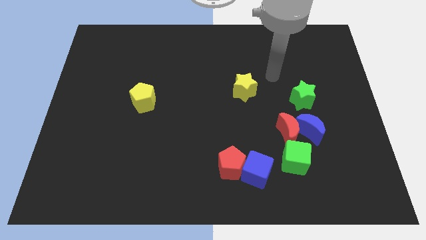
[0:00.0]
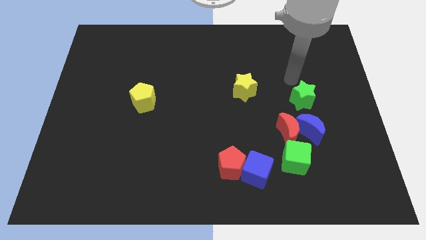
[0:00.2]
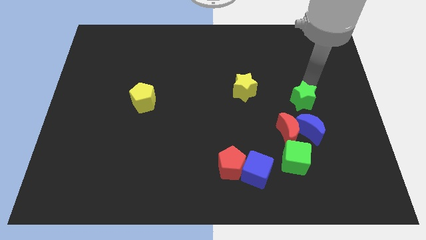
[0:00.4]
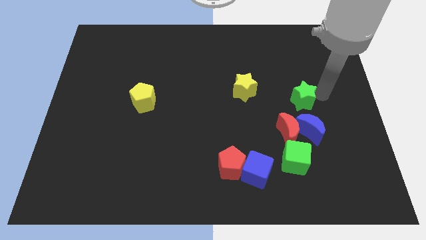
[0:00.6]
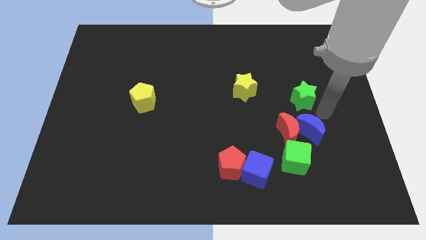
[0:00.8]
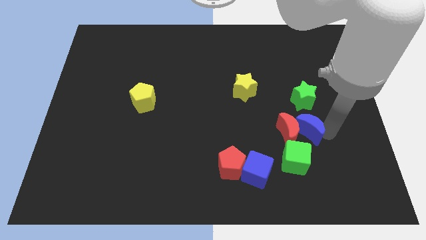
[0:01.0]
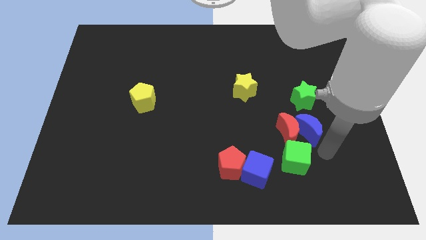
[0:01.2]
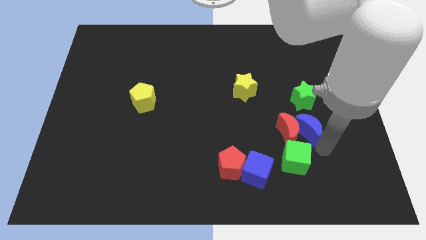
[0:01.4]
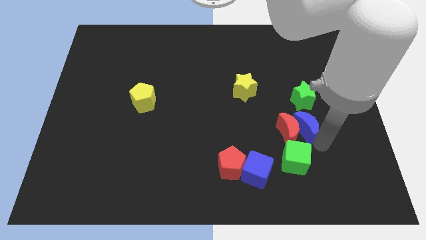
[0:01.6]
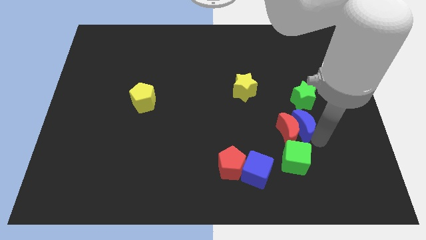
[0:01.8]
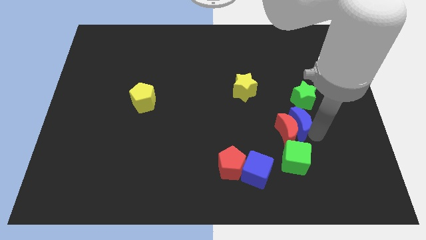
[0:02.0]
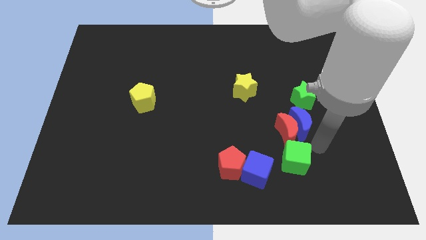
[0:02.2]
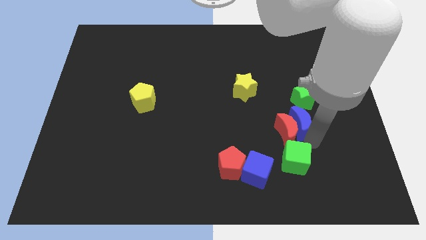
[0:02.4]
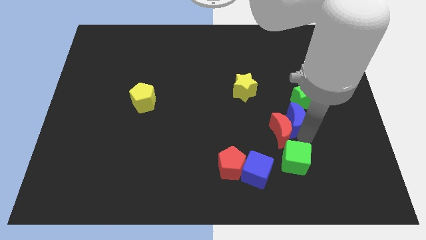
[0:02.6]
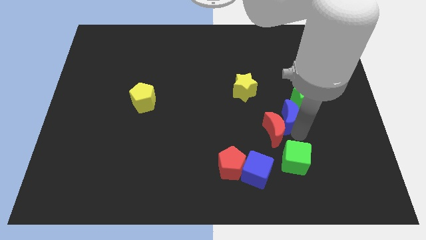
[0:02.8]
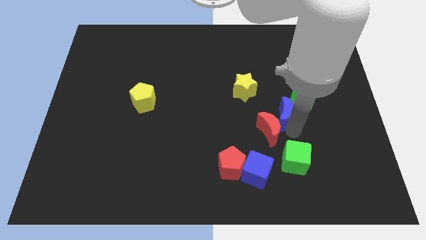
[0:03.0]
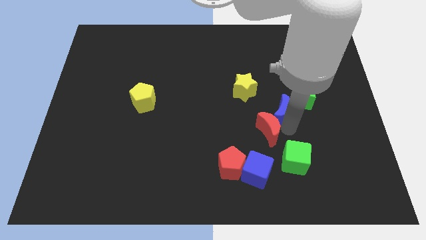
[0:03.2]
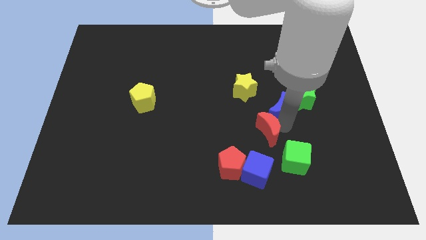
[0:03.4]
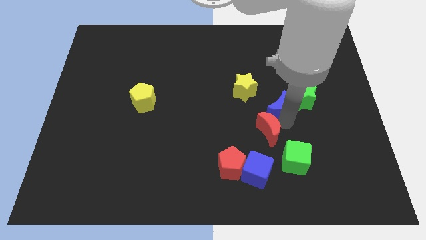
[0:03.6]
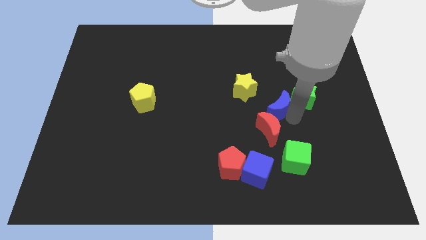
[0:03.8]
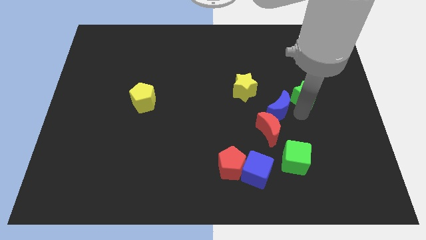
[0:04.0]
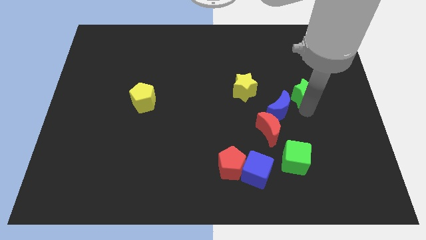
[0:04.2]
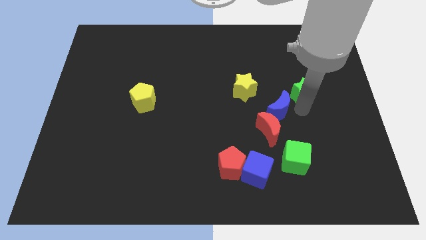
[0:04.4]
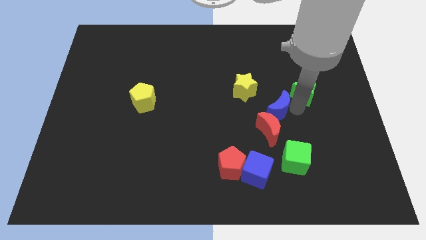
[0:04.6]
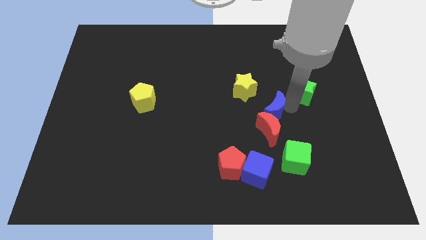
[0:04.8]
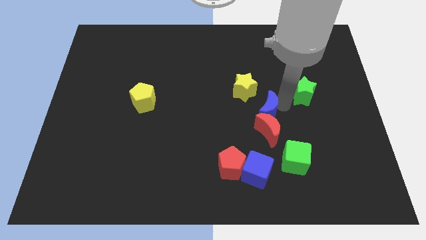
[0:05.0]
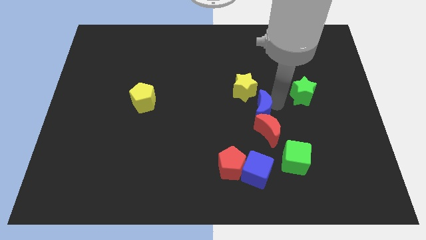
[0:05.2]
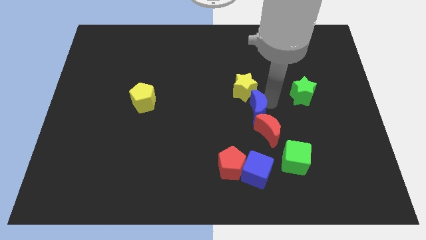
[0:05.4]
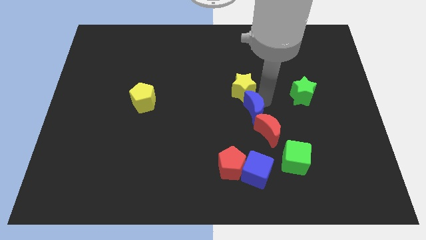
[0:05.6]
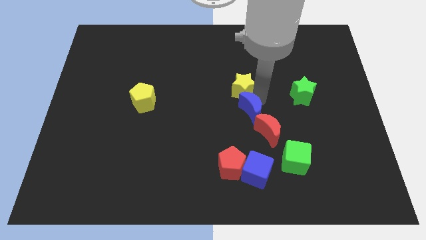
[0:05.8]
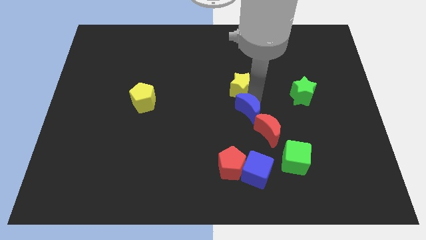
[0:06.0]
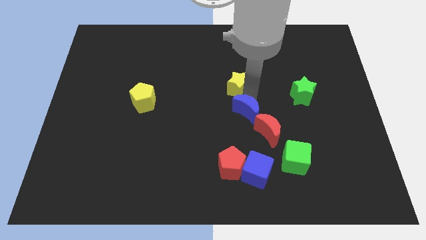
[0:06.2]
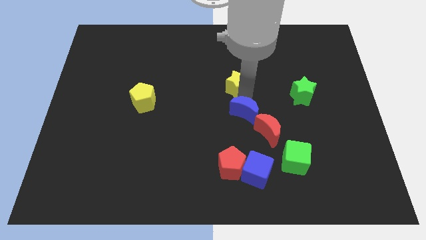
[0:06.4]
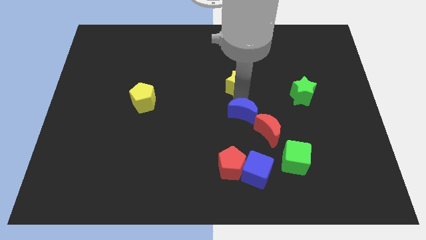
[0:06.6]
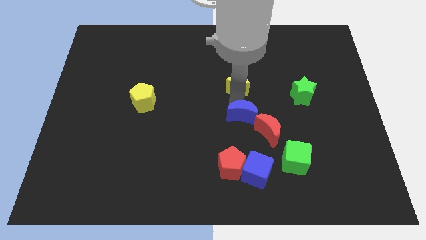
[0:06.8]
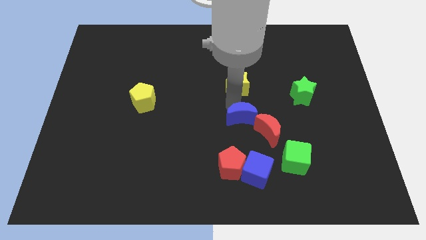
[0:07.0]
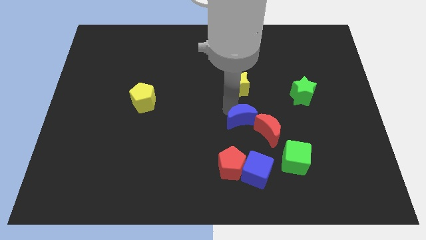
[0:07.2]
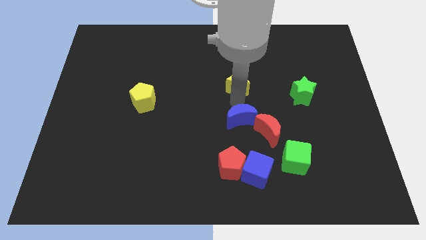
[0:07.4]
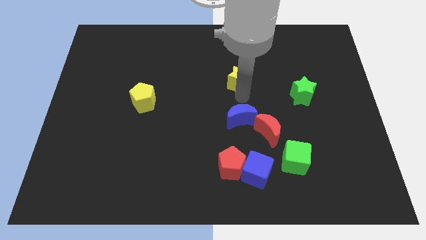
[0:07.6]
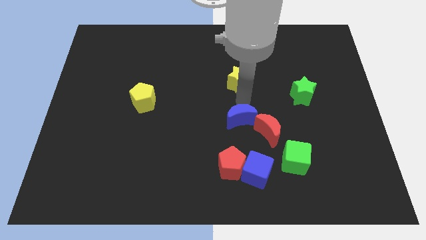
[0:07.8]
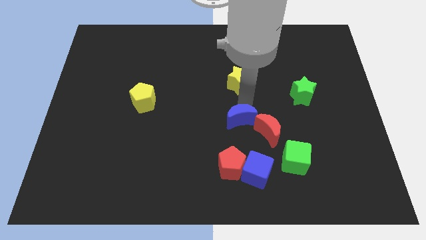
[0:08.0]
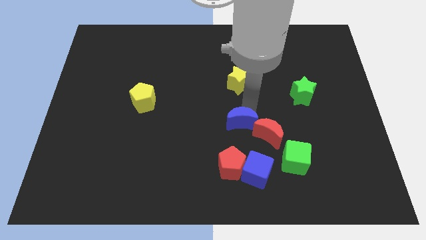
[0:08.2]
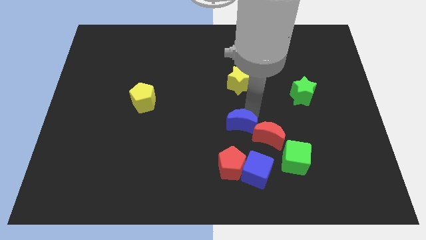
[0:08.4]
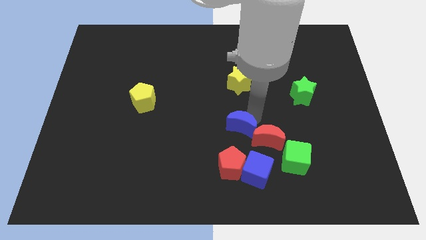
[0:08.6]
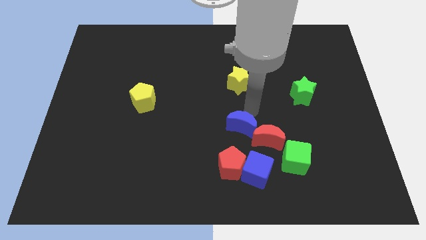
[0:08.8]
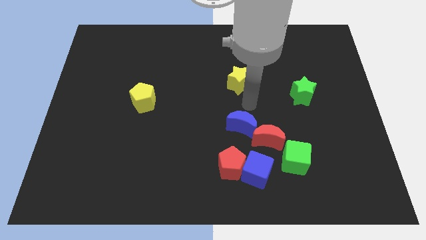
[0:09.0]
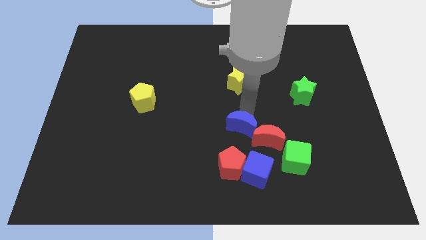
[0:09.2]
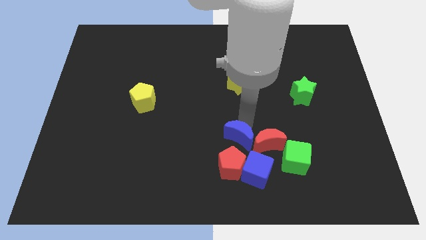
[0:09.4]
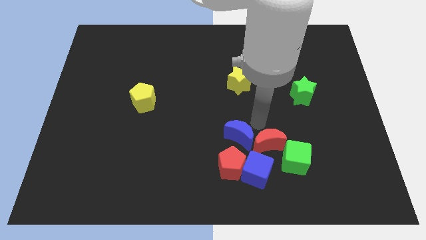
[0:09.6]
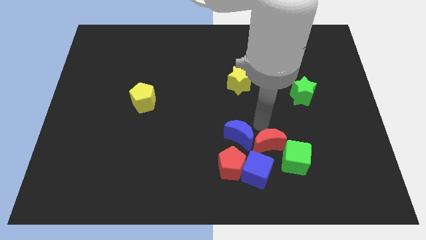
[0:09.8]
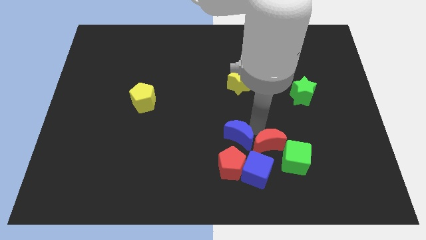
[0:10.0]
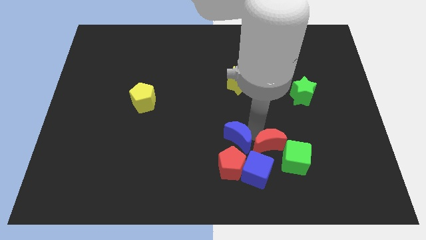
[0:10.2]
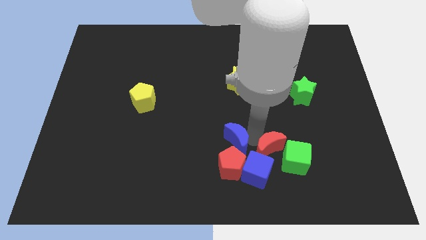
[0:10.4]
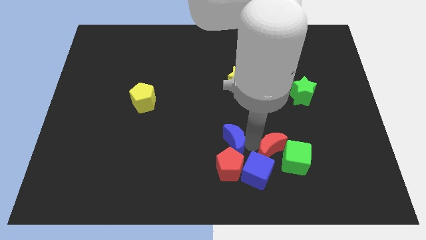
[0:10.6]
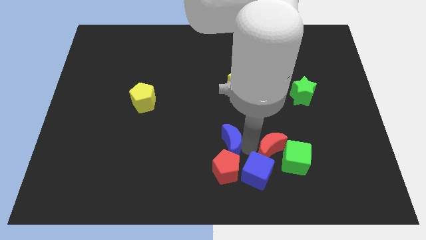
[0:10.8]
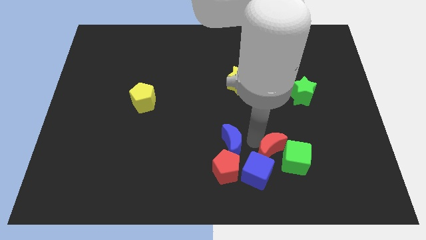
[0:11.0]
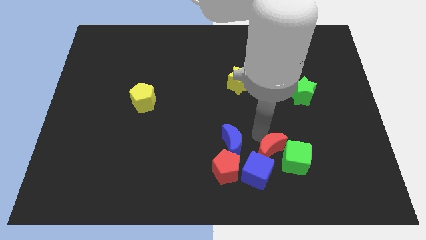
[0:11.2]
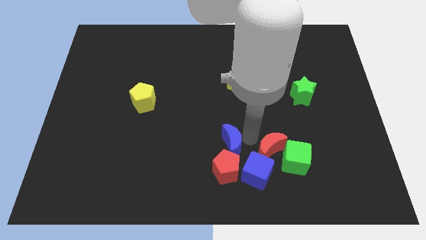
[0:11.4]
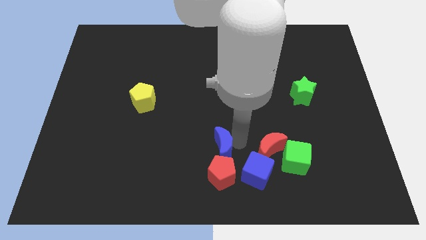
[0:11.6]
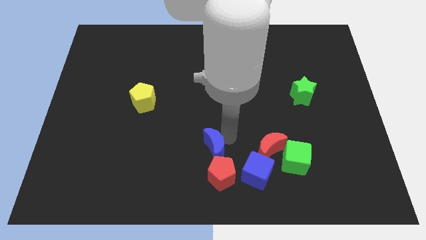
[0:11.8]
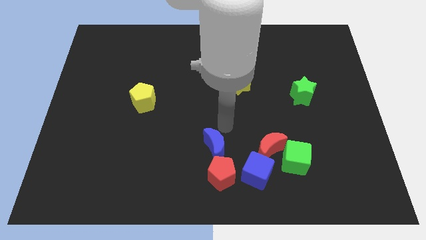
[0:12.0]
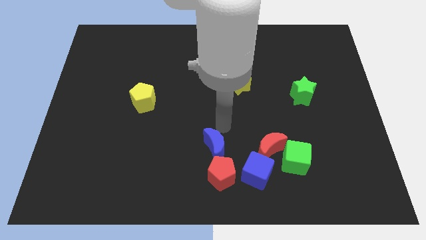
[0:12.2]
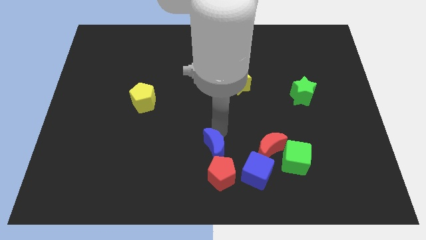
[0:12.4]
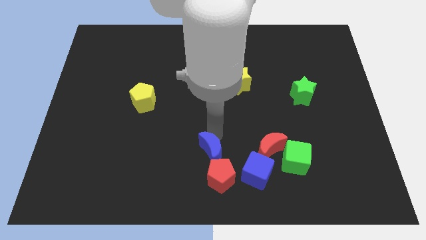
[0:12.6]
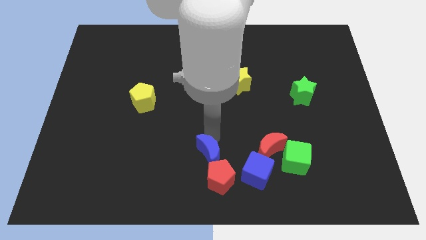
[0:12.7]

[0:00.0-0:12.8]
slide the blue moon left of the blue cube

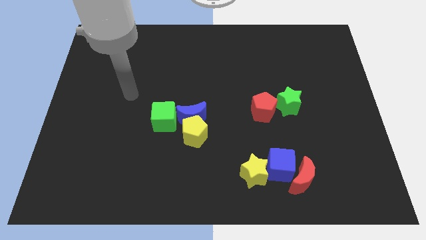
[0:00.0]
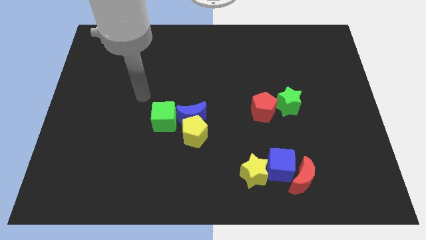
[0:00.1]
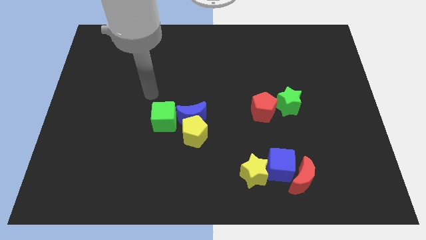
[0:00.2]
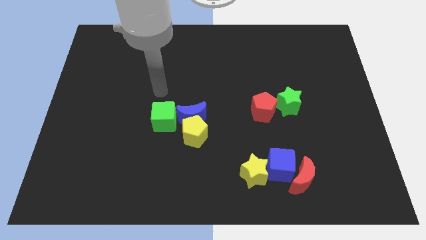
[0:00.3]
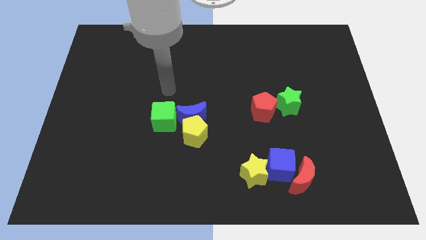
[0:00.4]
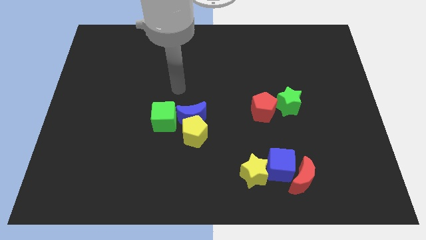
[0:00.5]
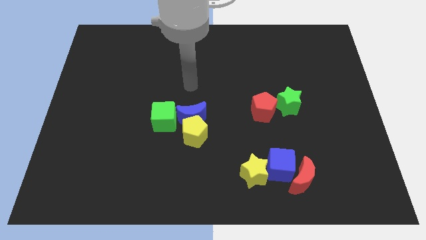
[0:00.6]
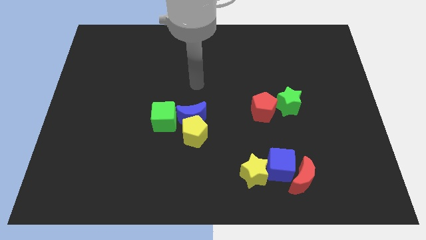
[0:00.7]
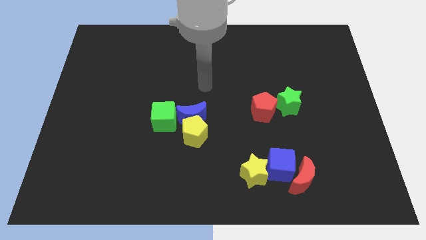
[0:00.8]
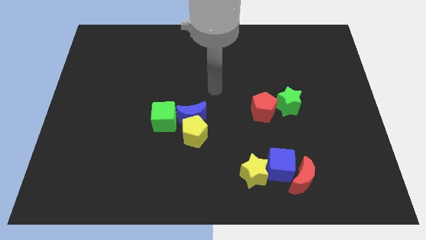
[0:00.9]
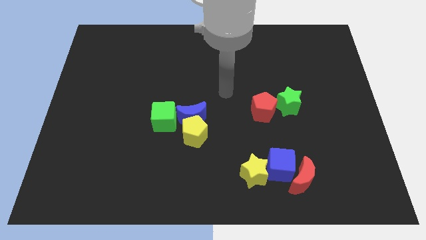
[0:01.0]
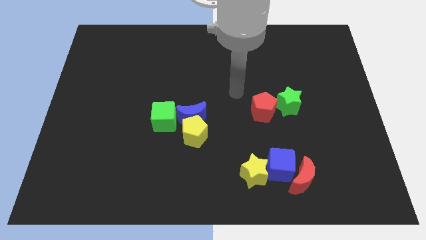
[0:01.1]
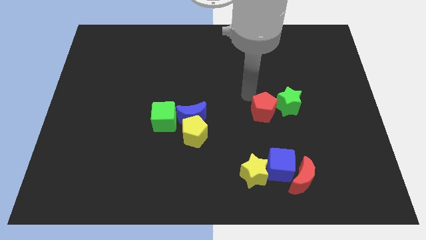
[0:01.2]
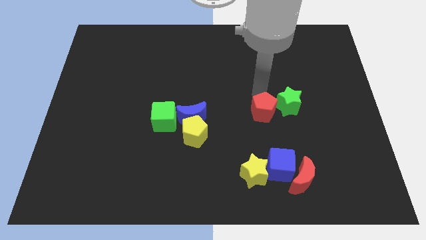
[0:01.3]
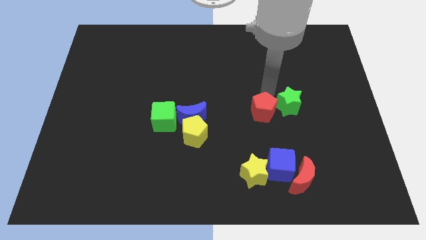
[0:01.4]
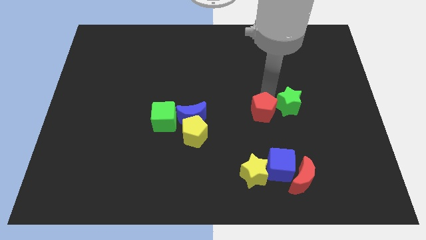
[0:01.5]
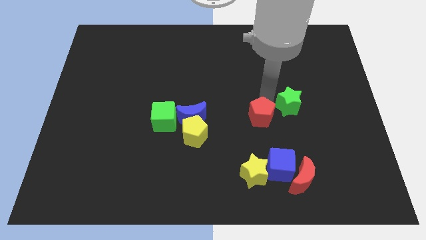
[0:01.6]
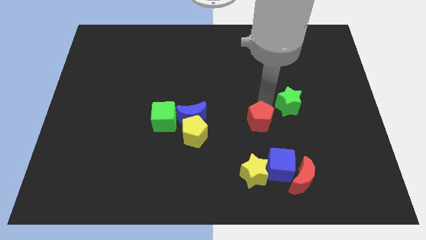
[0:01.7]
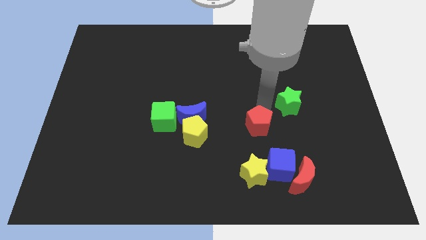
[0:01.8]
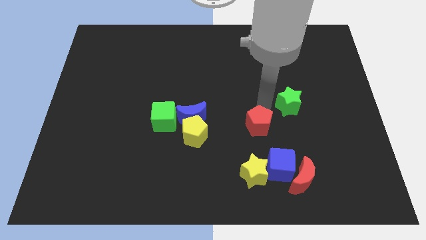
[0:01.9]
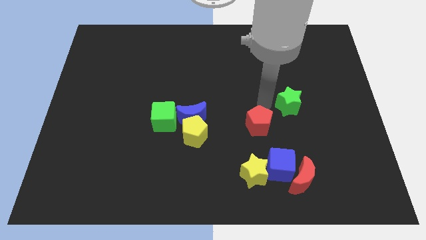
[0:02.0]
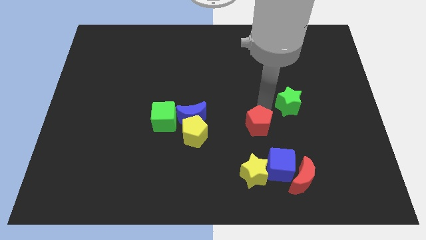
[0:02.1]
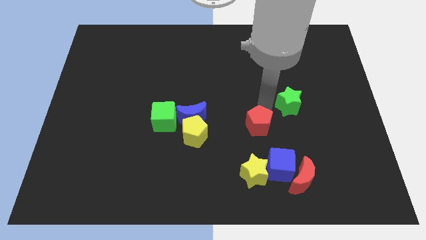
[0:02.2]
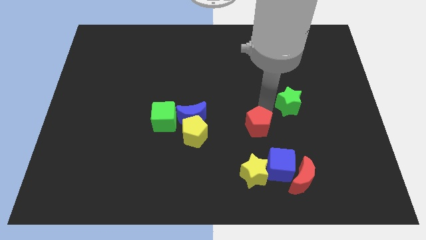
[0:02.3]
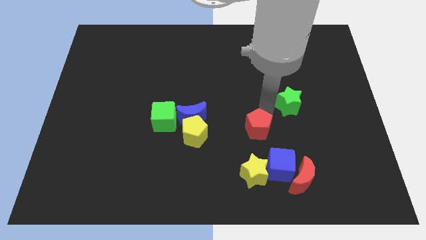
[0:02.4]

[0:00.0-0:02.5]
slide the red pentagon to the top left of the blue cube
